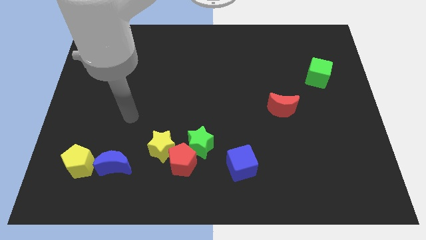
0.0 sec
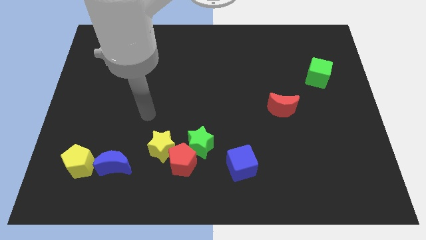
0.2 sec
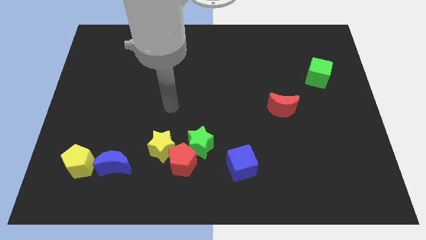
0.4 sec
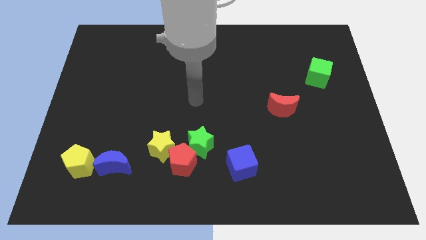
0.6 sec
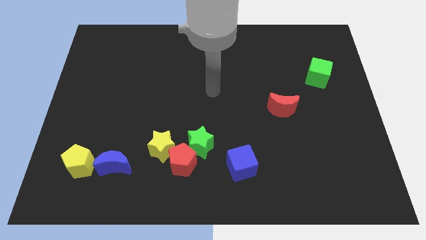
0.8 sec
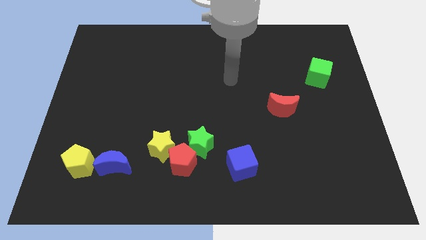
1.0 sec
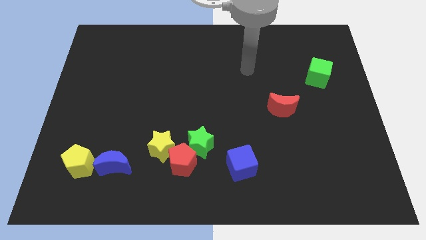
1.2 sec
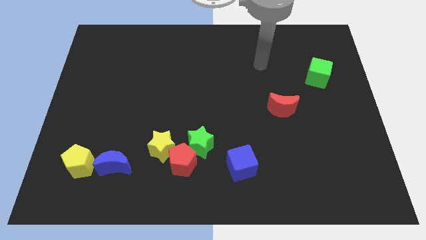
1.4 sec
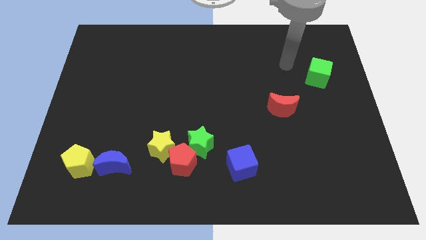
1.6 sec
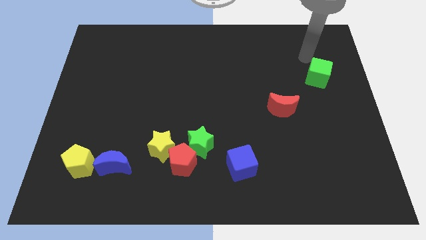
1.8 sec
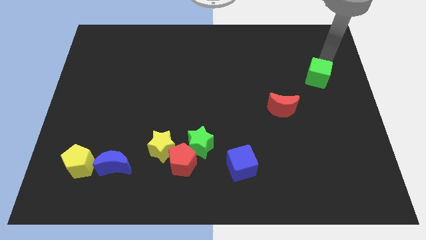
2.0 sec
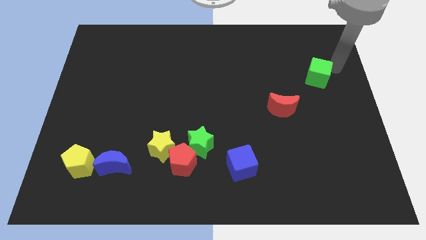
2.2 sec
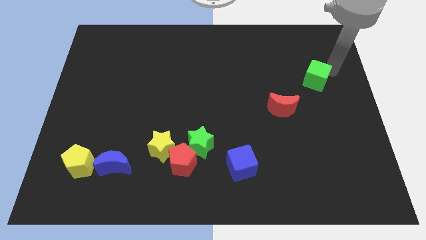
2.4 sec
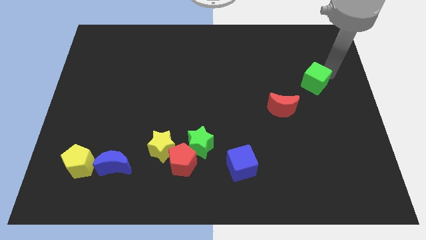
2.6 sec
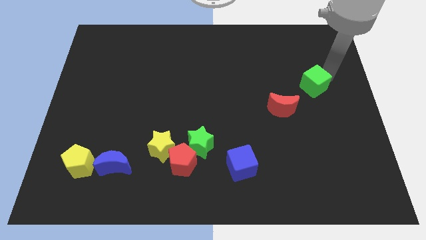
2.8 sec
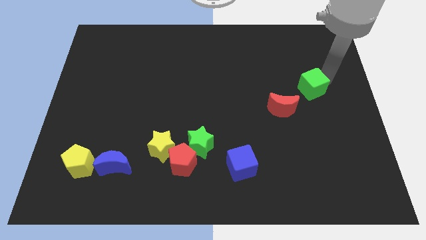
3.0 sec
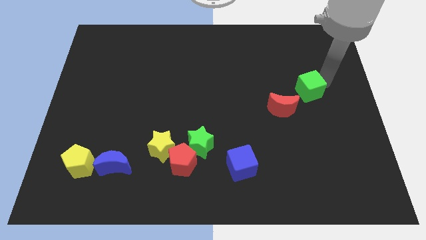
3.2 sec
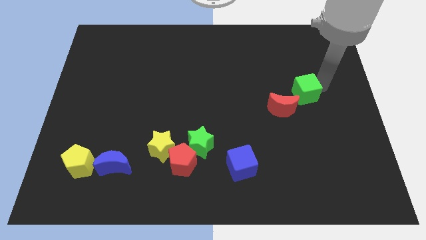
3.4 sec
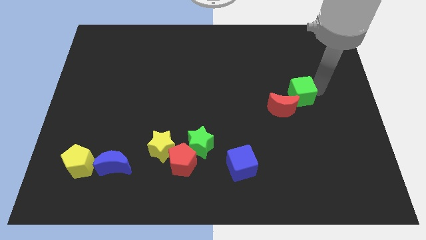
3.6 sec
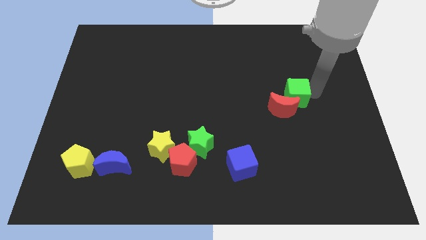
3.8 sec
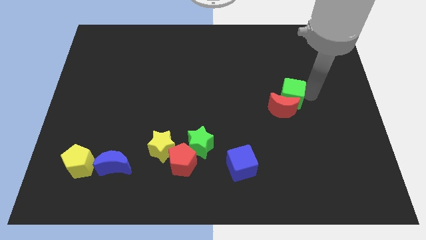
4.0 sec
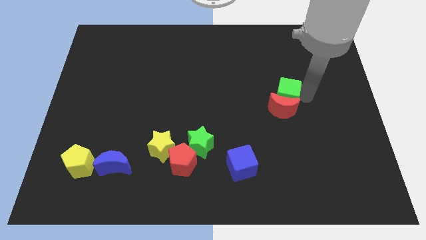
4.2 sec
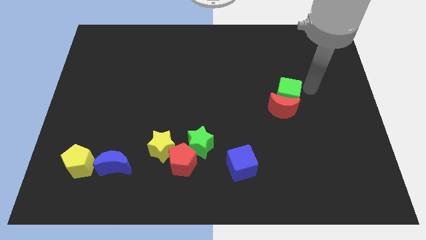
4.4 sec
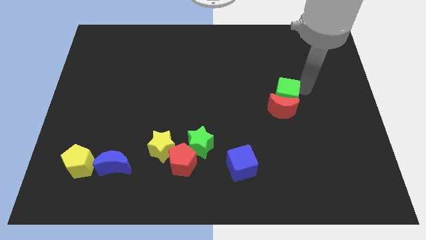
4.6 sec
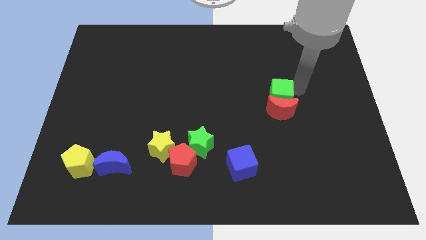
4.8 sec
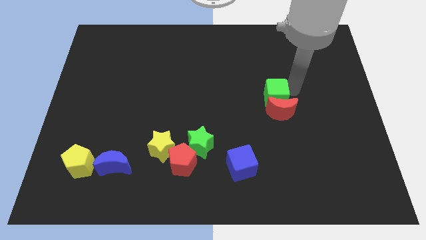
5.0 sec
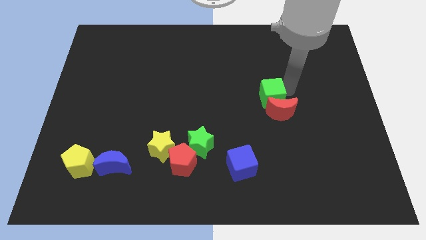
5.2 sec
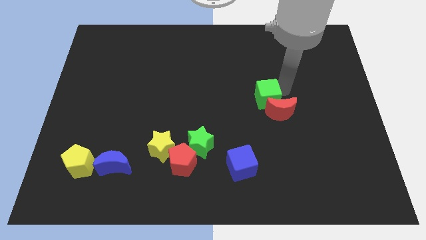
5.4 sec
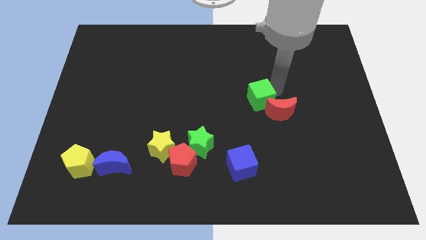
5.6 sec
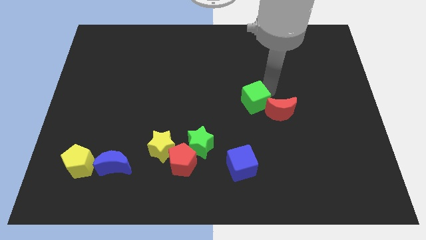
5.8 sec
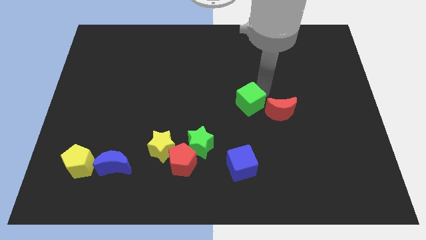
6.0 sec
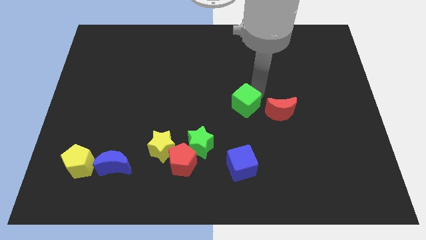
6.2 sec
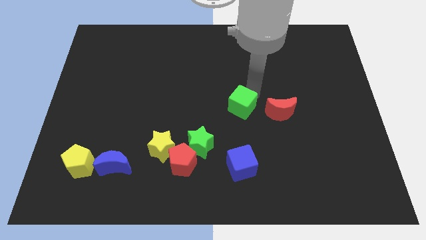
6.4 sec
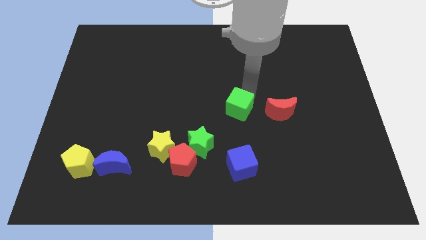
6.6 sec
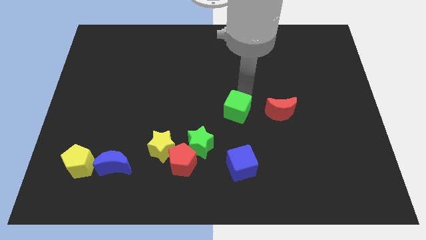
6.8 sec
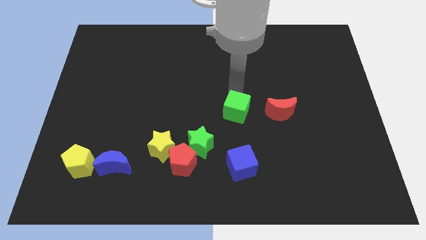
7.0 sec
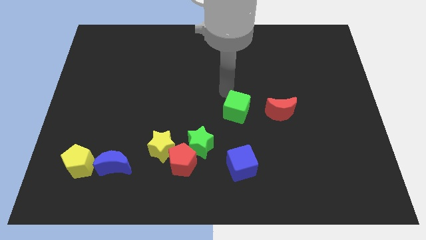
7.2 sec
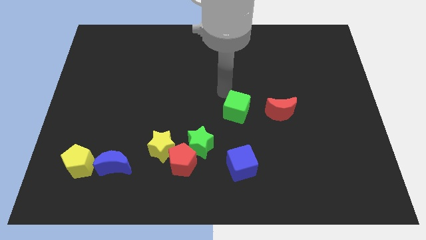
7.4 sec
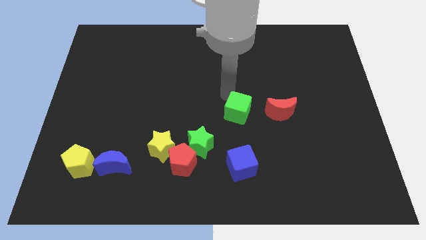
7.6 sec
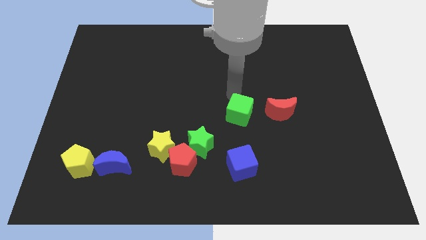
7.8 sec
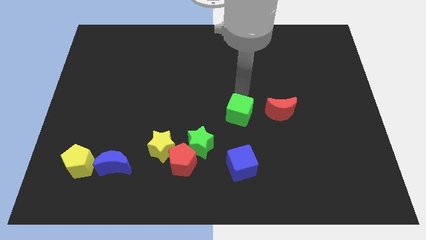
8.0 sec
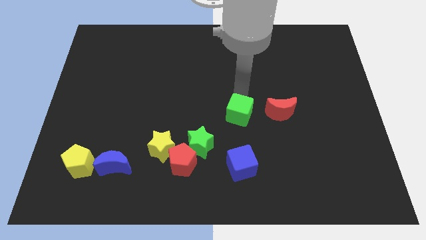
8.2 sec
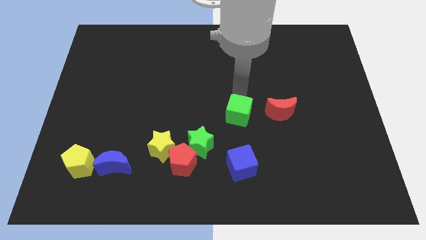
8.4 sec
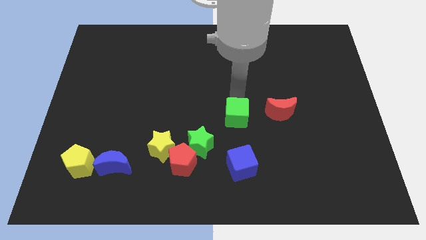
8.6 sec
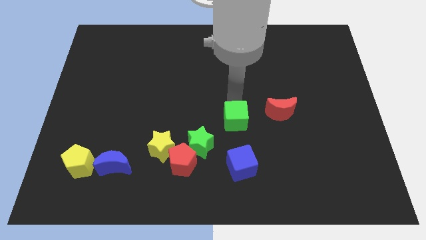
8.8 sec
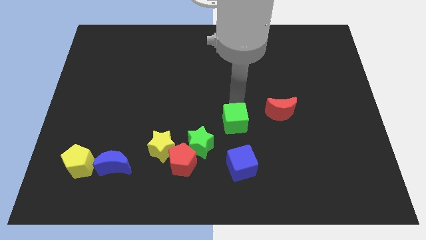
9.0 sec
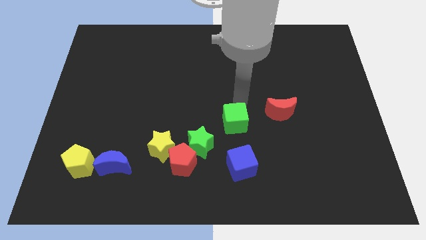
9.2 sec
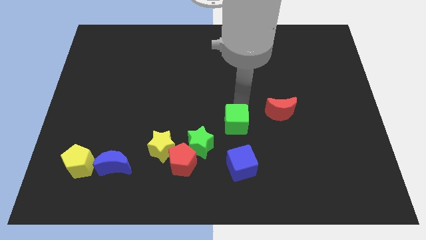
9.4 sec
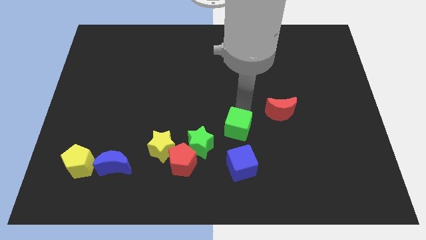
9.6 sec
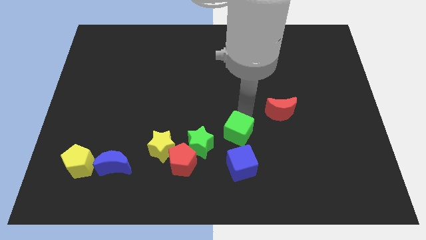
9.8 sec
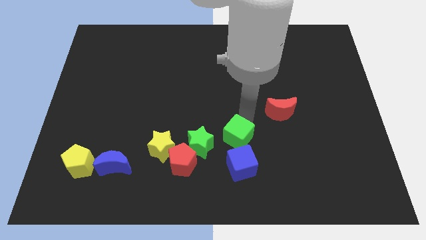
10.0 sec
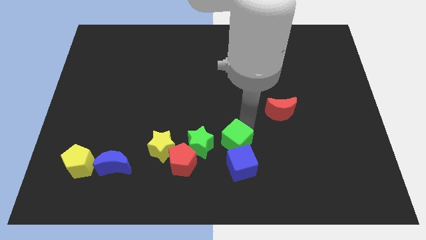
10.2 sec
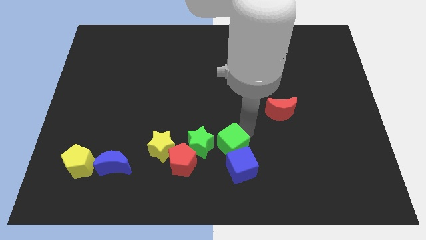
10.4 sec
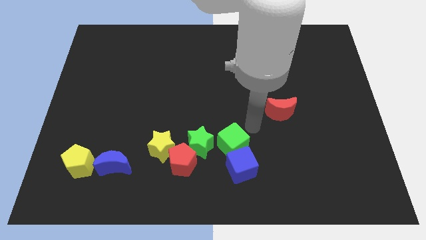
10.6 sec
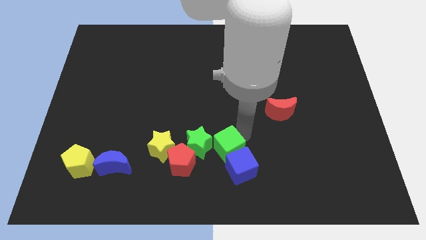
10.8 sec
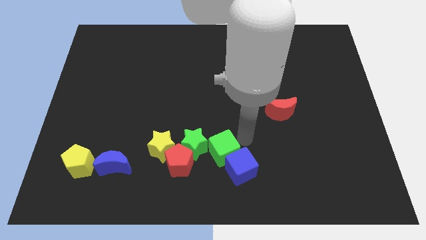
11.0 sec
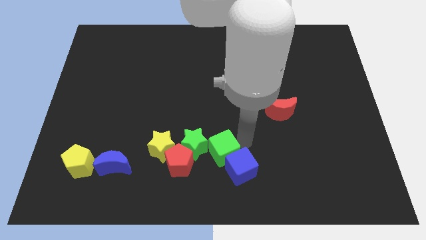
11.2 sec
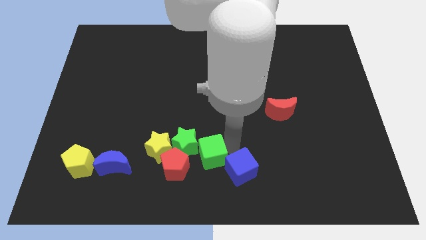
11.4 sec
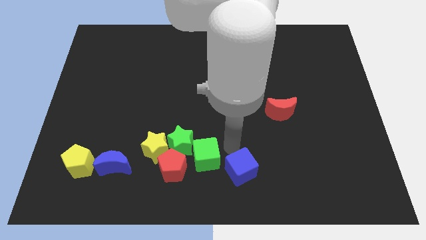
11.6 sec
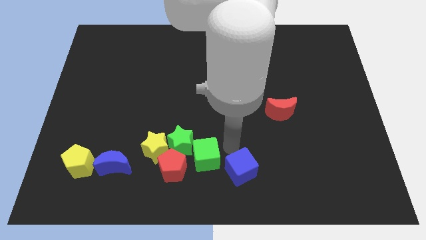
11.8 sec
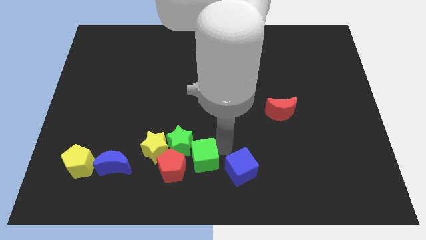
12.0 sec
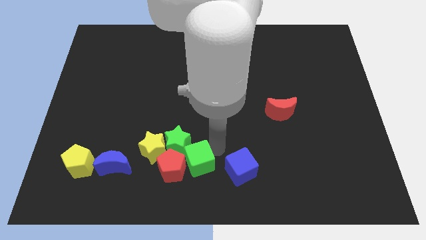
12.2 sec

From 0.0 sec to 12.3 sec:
push the green cube towards the red pentagon

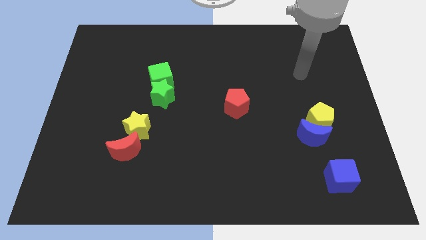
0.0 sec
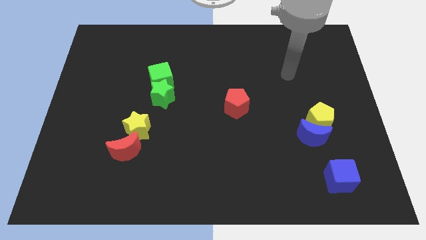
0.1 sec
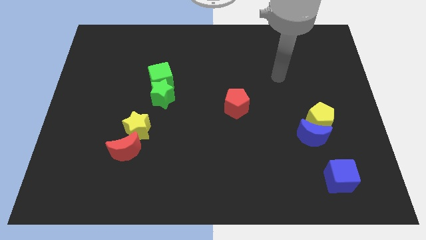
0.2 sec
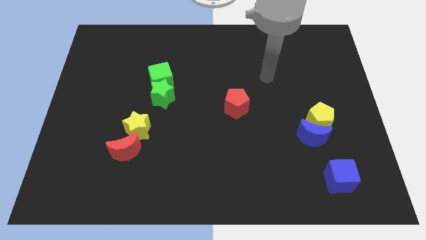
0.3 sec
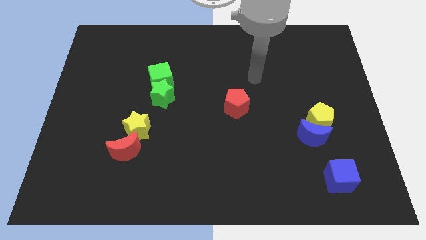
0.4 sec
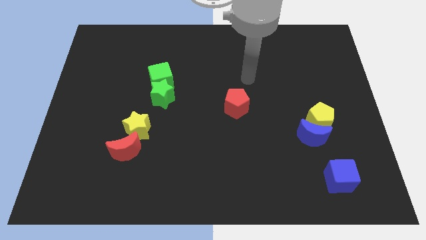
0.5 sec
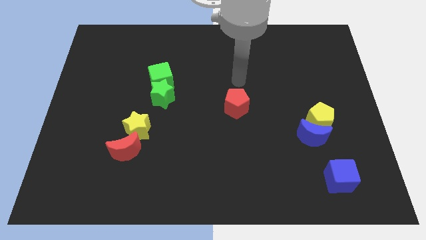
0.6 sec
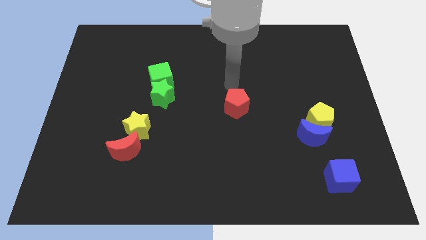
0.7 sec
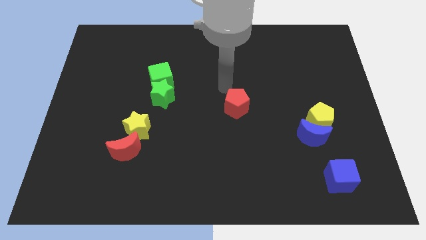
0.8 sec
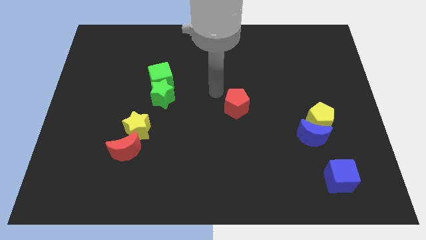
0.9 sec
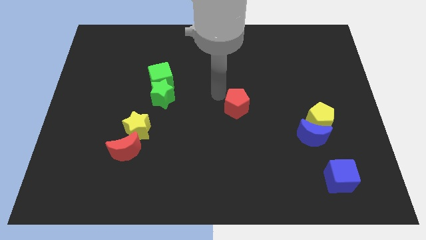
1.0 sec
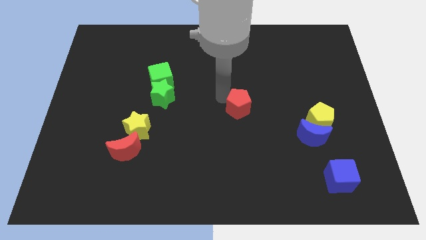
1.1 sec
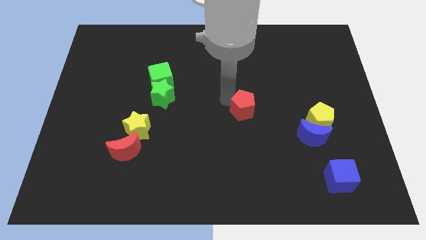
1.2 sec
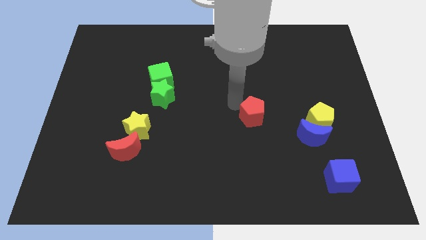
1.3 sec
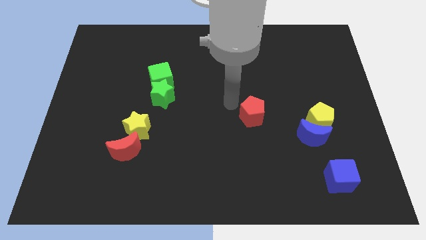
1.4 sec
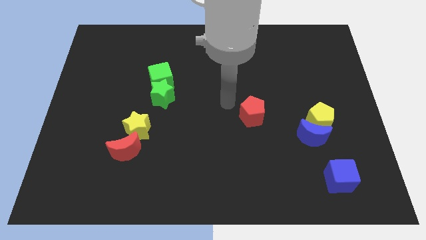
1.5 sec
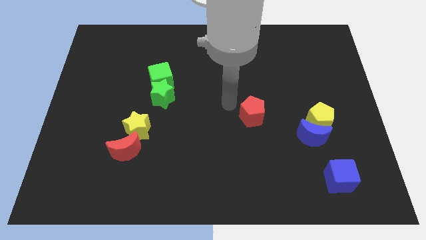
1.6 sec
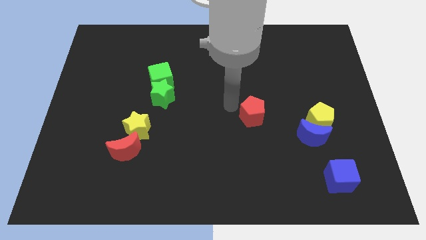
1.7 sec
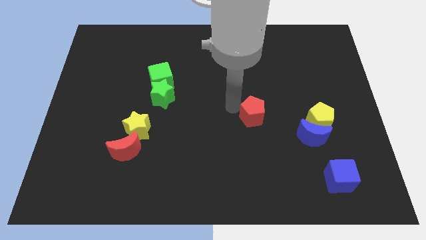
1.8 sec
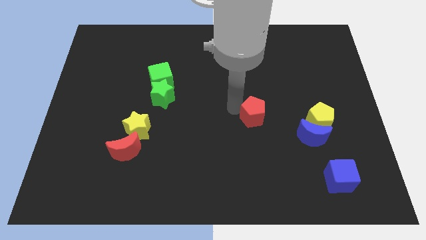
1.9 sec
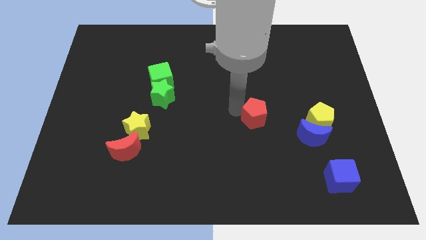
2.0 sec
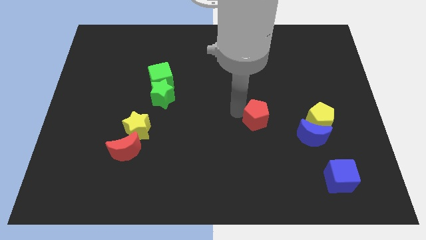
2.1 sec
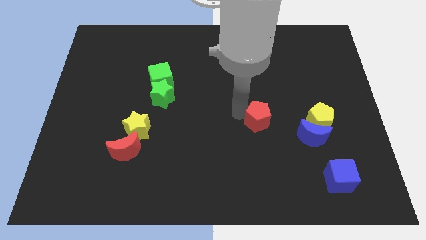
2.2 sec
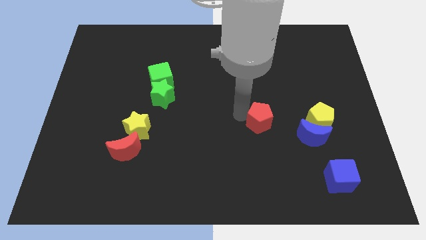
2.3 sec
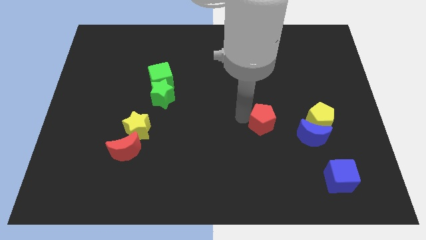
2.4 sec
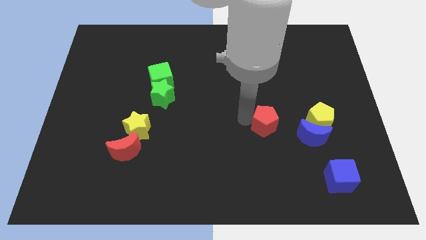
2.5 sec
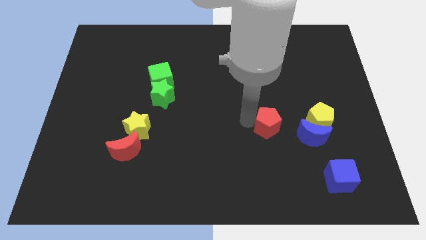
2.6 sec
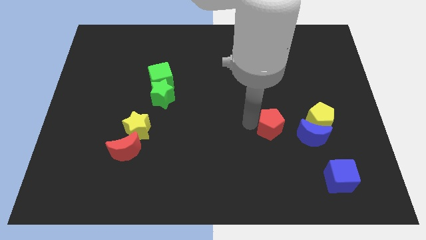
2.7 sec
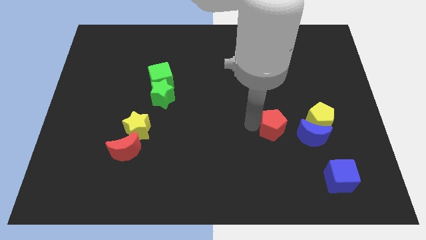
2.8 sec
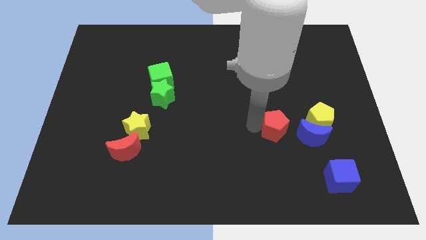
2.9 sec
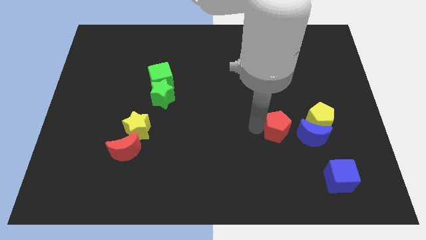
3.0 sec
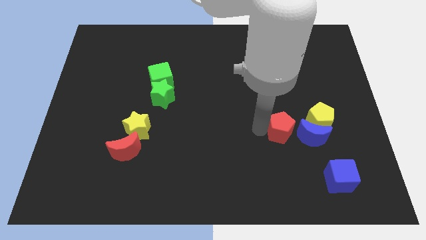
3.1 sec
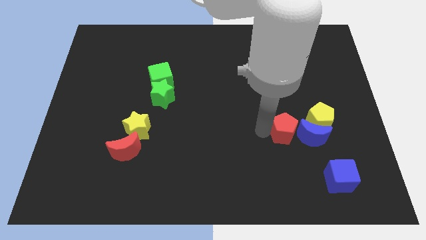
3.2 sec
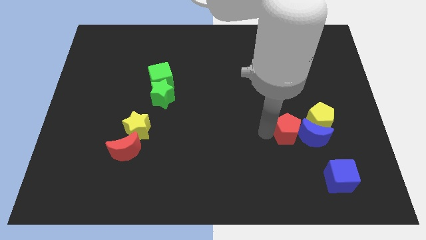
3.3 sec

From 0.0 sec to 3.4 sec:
put the red pentagon to the blue moon
